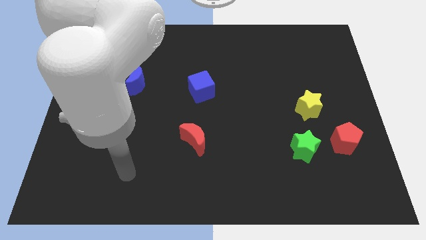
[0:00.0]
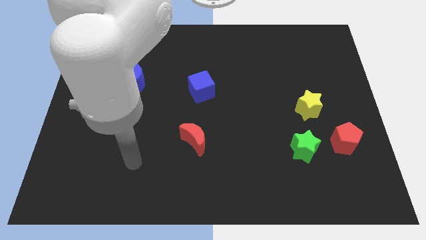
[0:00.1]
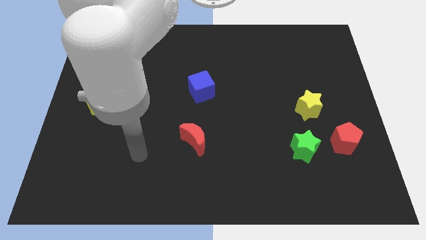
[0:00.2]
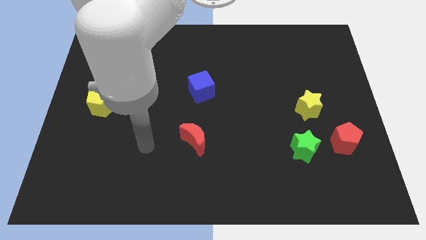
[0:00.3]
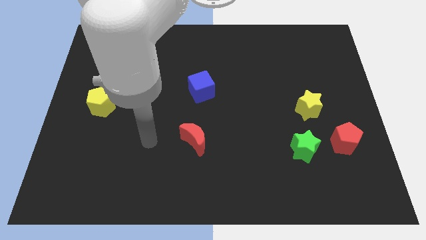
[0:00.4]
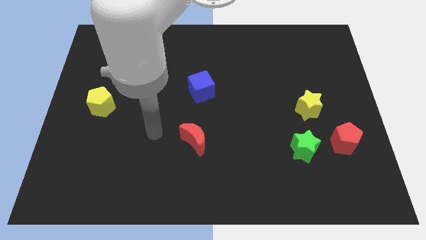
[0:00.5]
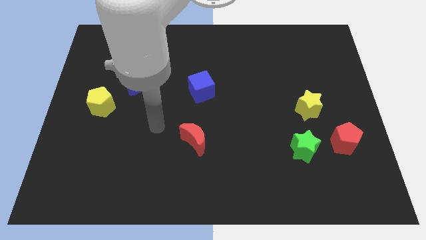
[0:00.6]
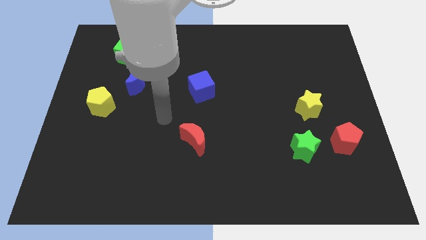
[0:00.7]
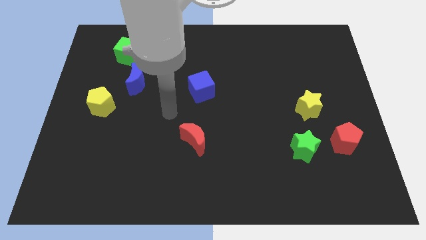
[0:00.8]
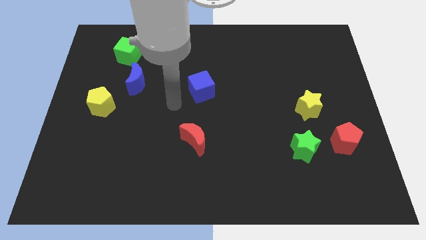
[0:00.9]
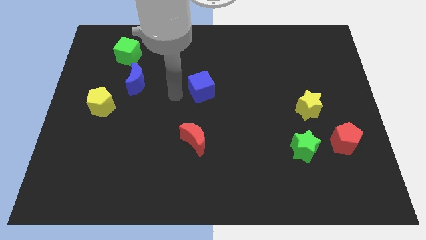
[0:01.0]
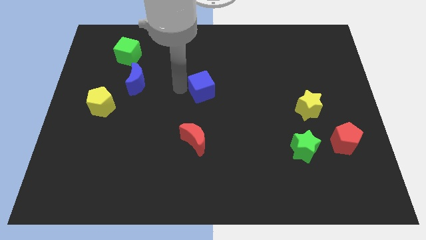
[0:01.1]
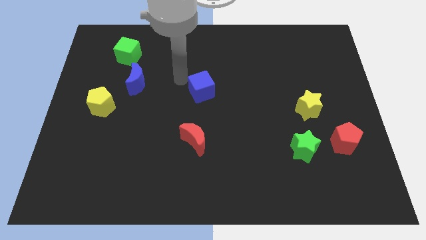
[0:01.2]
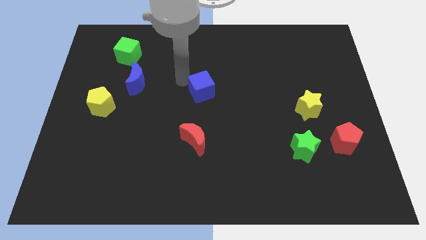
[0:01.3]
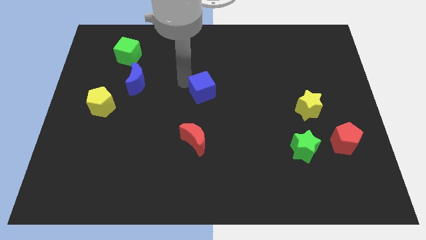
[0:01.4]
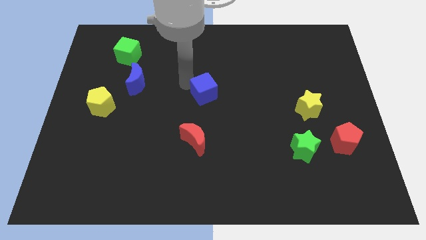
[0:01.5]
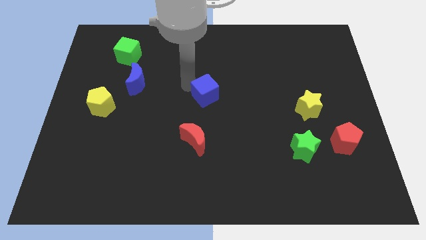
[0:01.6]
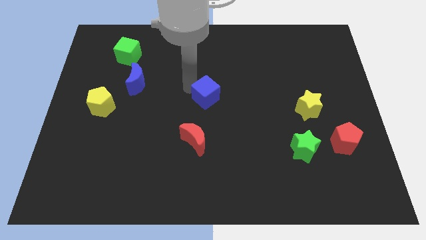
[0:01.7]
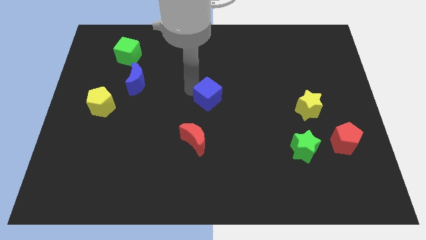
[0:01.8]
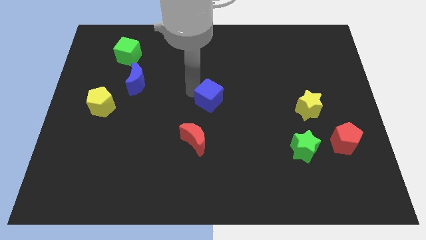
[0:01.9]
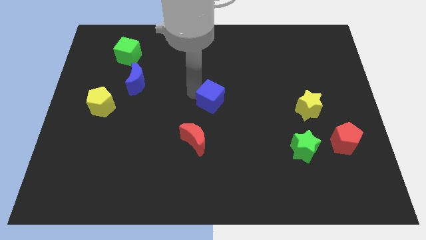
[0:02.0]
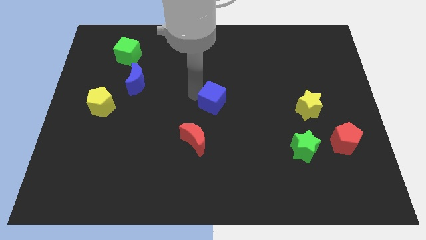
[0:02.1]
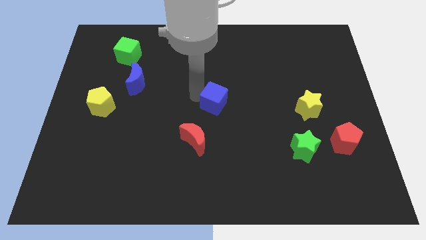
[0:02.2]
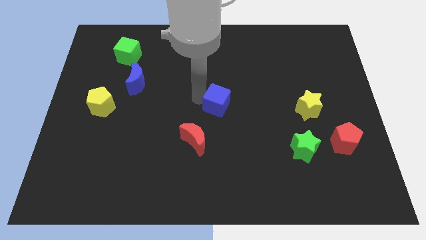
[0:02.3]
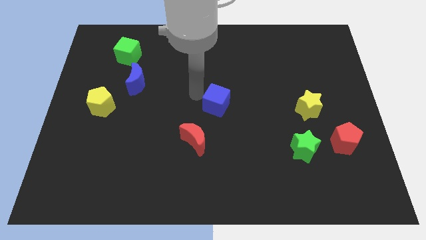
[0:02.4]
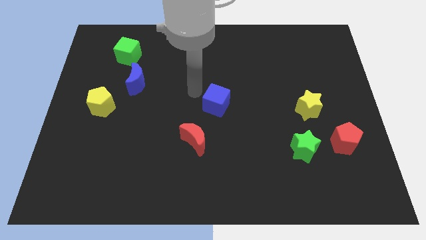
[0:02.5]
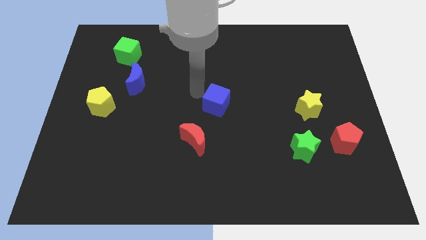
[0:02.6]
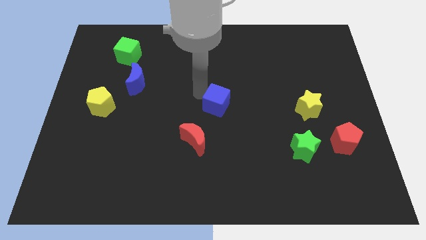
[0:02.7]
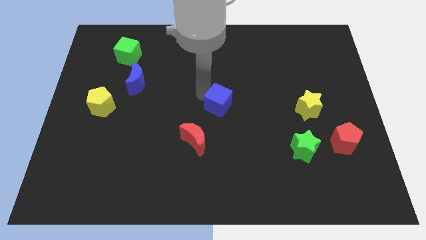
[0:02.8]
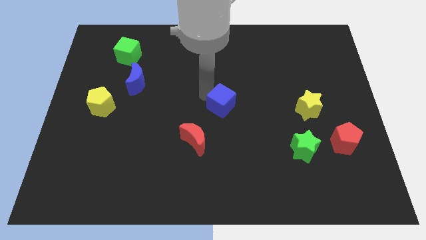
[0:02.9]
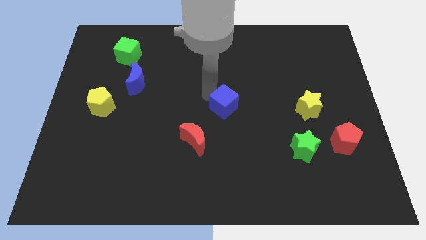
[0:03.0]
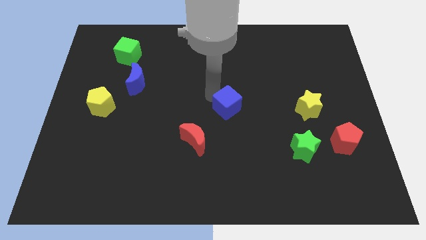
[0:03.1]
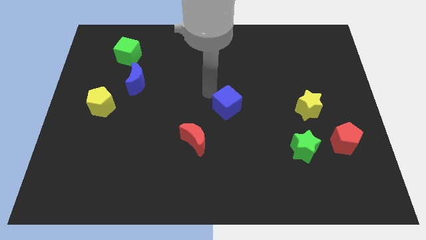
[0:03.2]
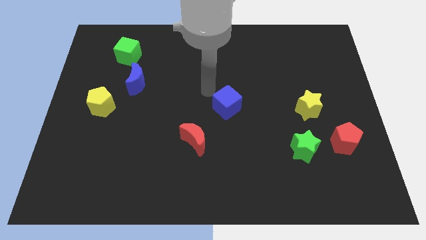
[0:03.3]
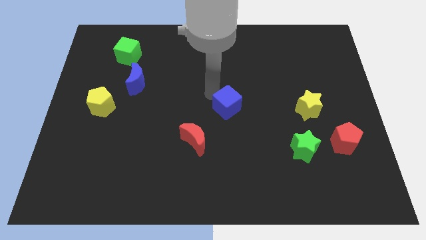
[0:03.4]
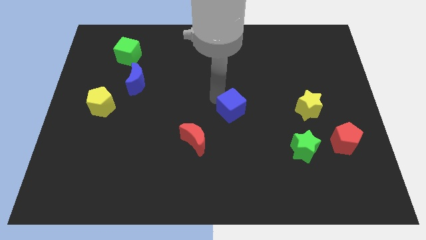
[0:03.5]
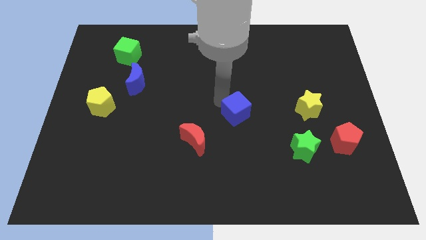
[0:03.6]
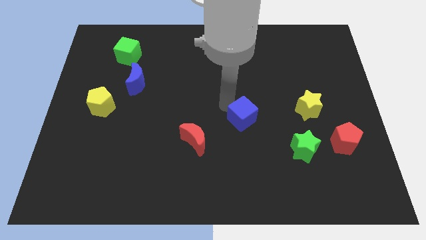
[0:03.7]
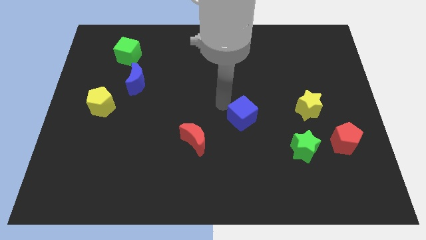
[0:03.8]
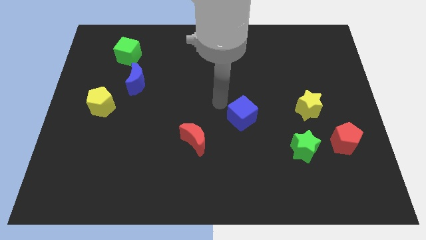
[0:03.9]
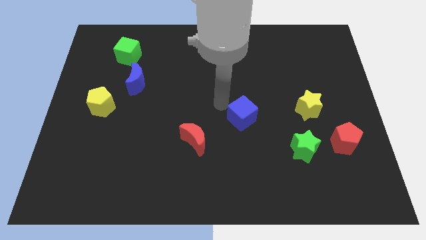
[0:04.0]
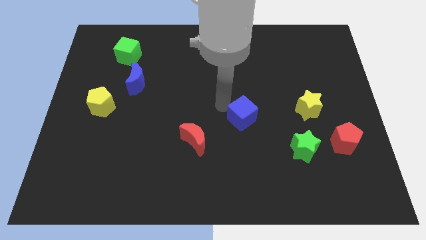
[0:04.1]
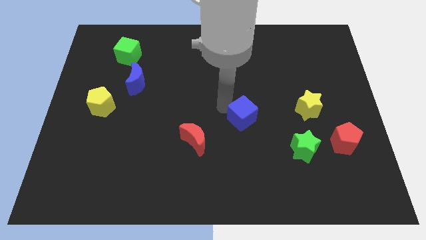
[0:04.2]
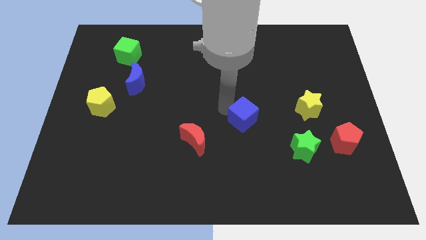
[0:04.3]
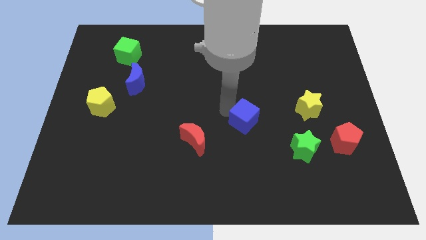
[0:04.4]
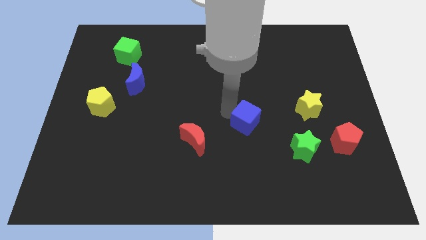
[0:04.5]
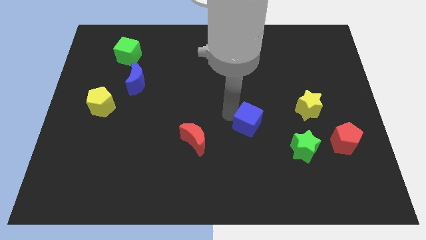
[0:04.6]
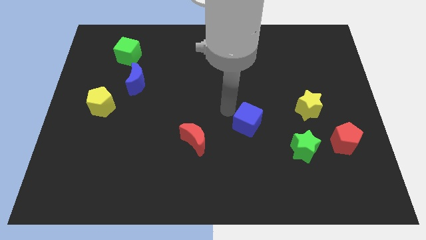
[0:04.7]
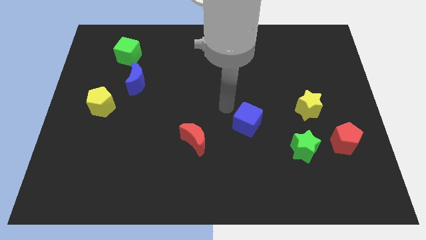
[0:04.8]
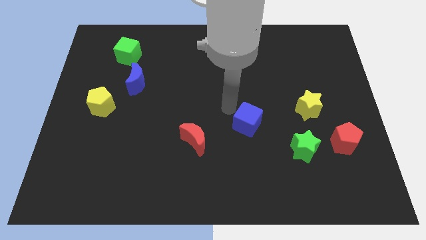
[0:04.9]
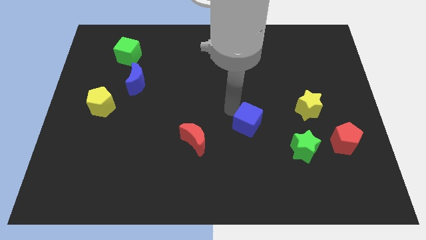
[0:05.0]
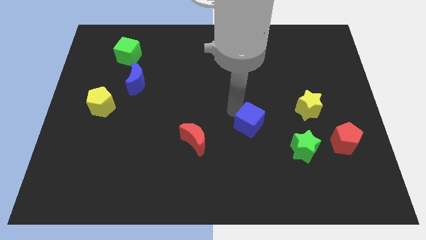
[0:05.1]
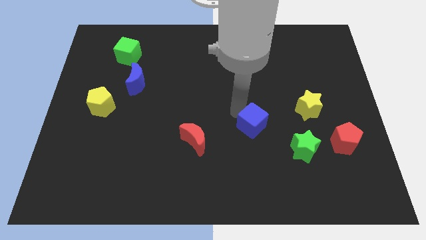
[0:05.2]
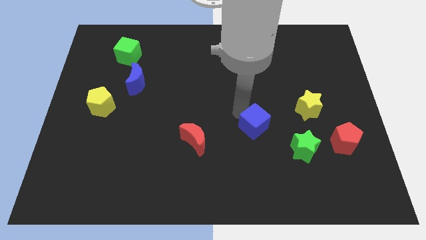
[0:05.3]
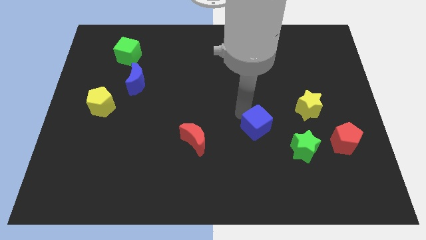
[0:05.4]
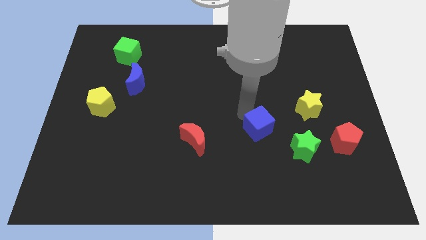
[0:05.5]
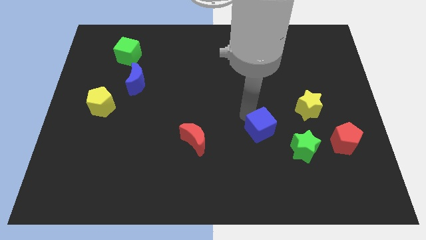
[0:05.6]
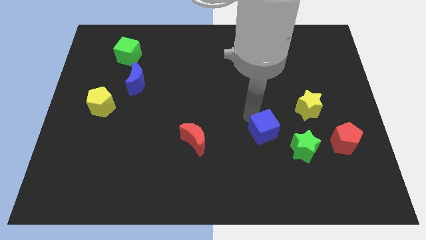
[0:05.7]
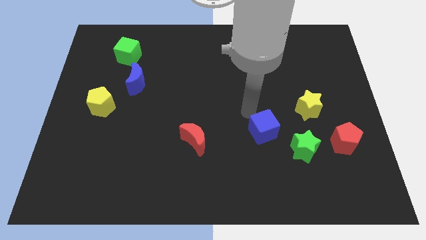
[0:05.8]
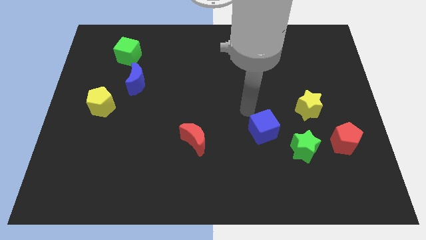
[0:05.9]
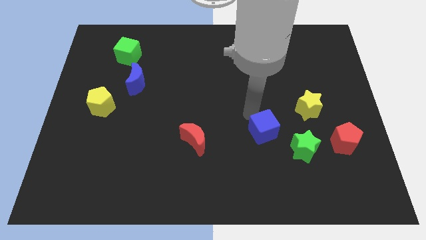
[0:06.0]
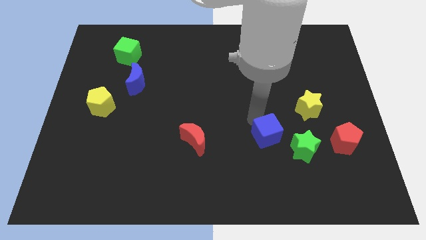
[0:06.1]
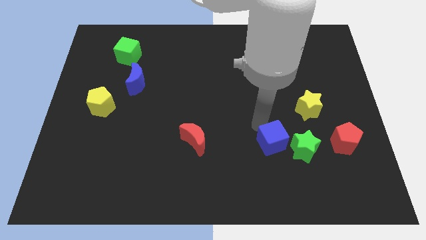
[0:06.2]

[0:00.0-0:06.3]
slide the blue cube downwards and to the right diagonally

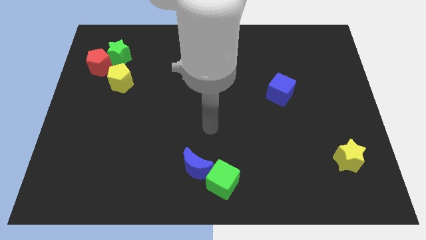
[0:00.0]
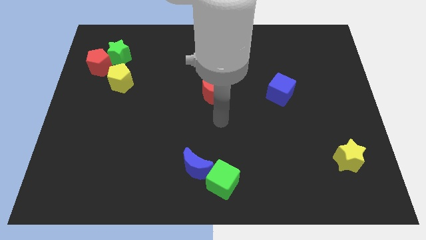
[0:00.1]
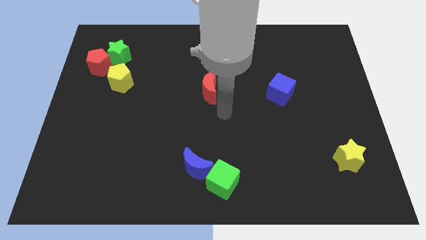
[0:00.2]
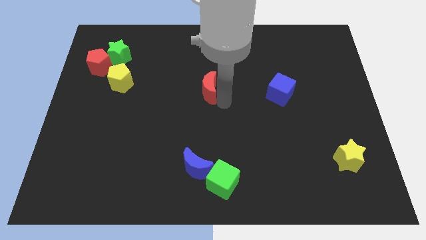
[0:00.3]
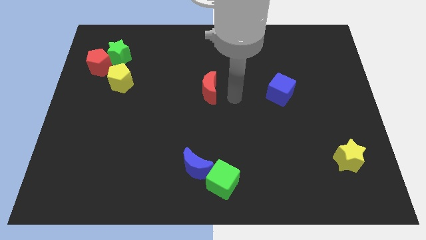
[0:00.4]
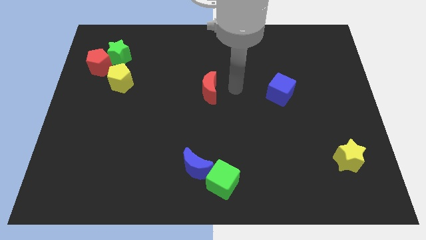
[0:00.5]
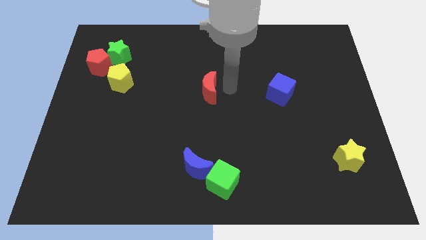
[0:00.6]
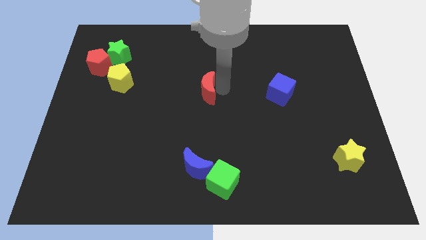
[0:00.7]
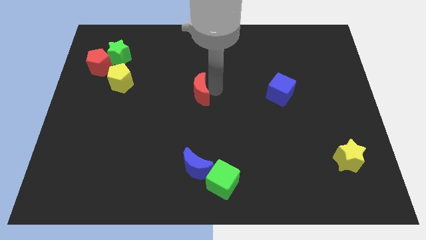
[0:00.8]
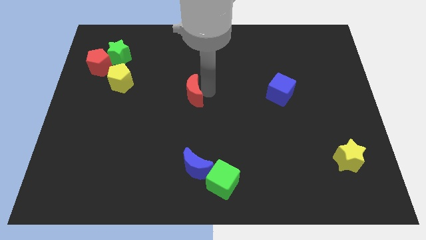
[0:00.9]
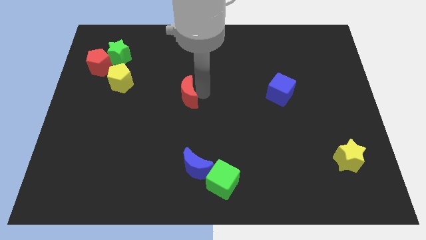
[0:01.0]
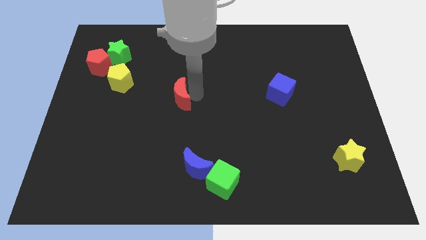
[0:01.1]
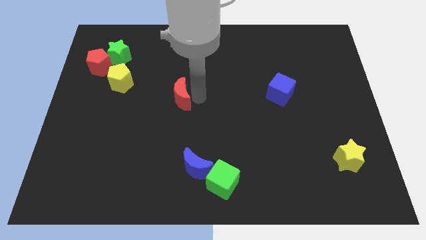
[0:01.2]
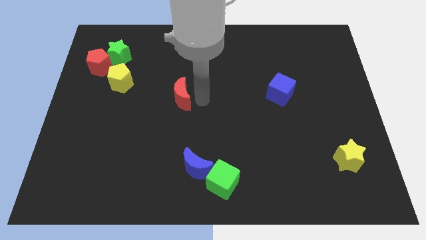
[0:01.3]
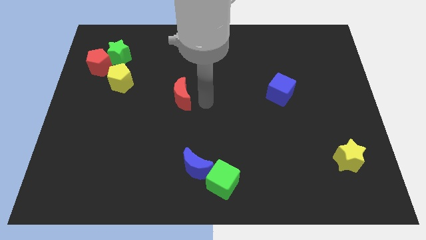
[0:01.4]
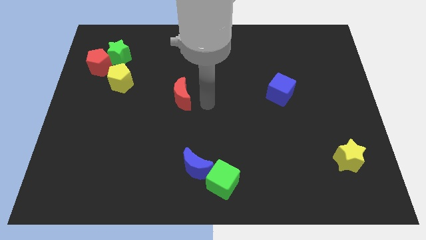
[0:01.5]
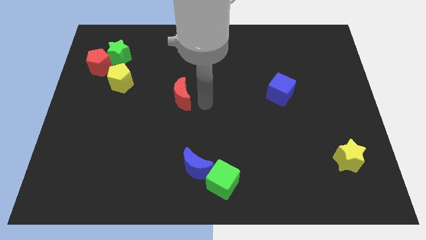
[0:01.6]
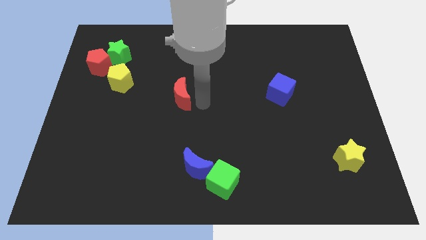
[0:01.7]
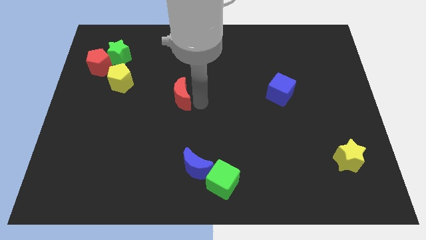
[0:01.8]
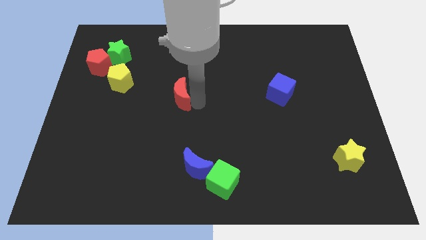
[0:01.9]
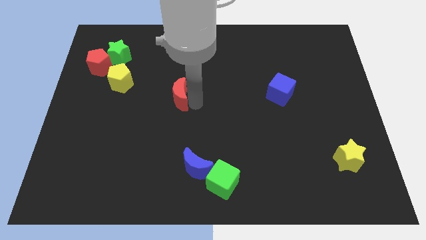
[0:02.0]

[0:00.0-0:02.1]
slide the red moon to the left a little
